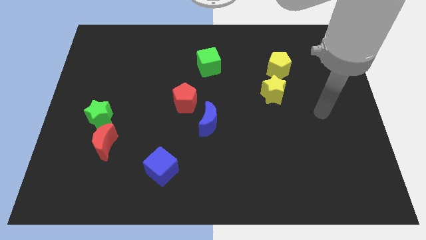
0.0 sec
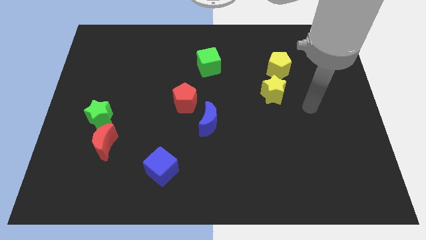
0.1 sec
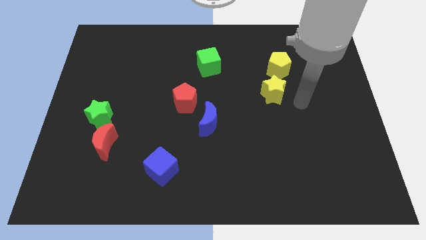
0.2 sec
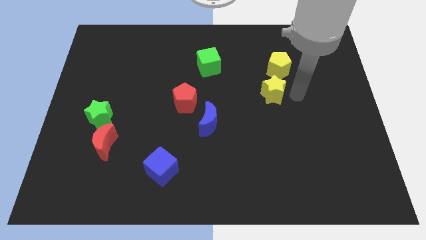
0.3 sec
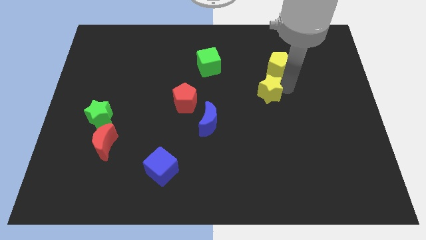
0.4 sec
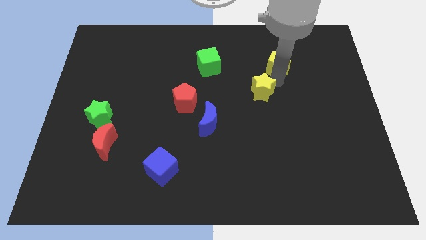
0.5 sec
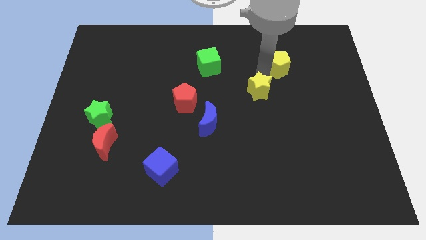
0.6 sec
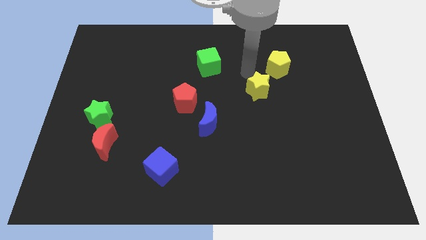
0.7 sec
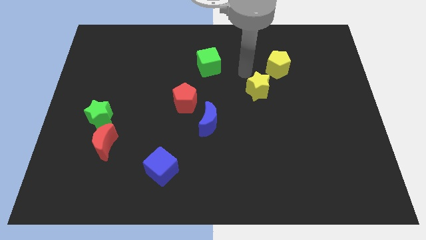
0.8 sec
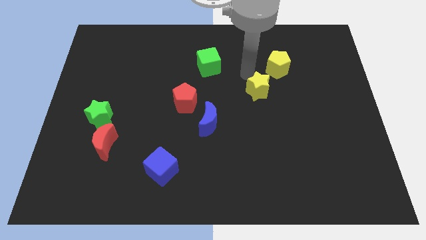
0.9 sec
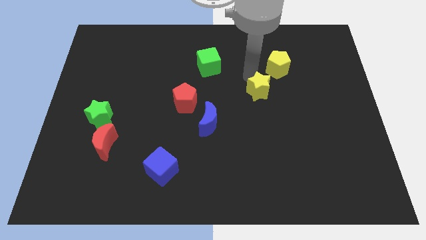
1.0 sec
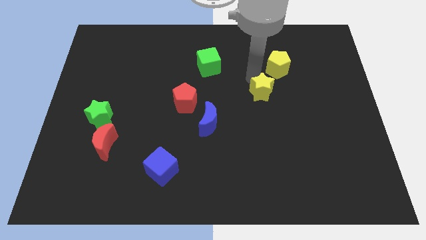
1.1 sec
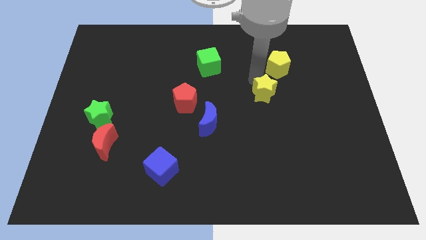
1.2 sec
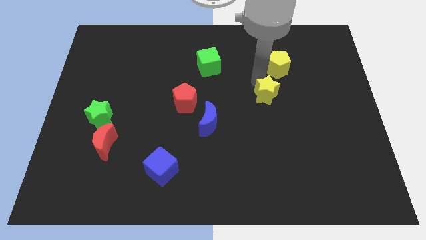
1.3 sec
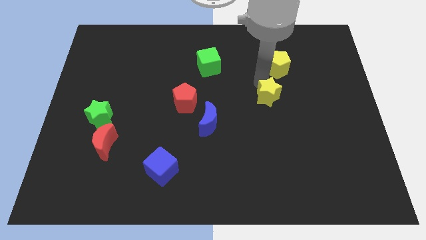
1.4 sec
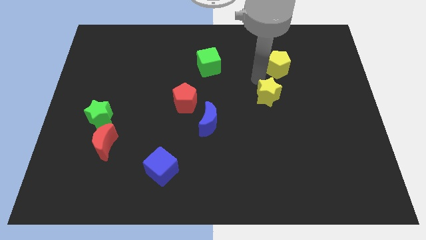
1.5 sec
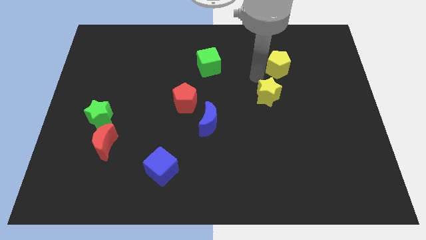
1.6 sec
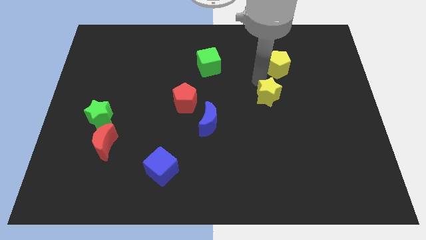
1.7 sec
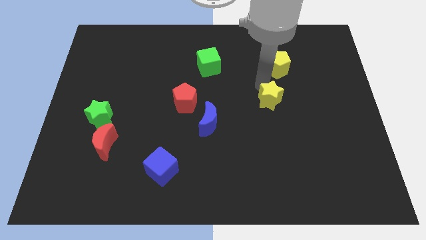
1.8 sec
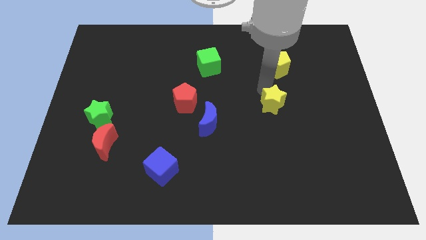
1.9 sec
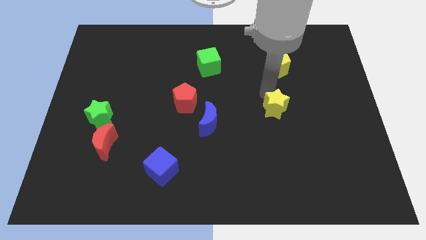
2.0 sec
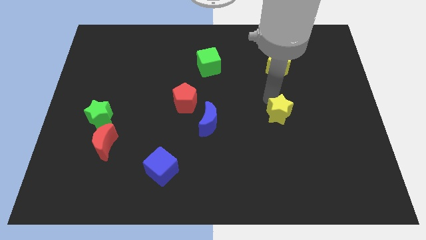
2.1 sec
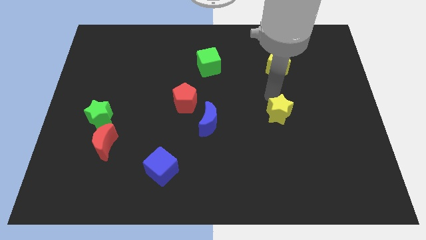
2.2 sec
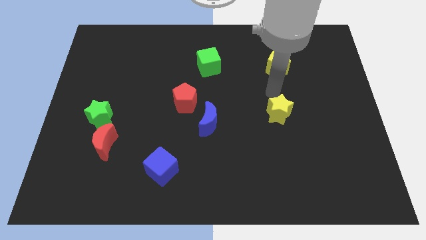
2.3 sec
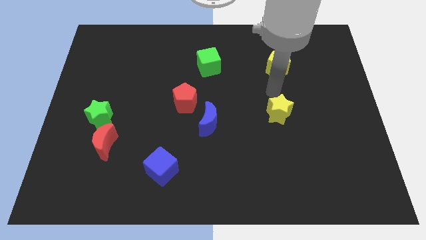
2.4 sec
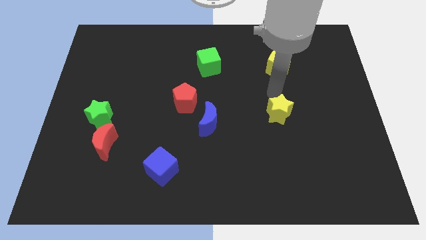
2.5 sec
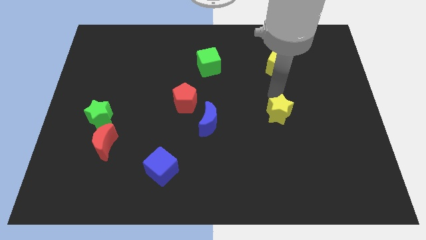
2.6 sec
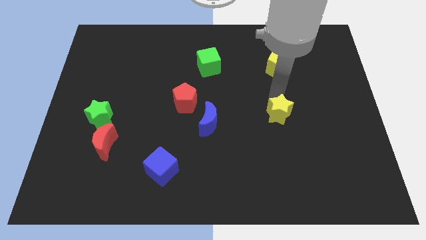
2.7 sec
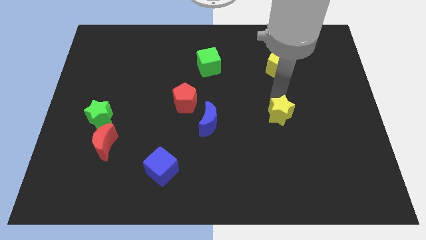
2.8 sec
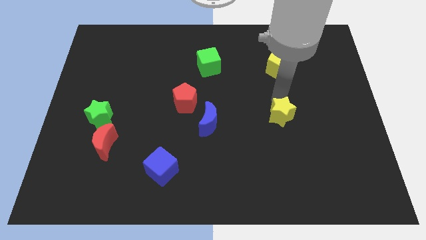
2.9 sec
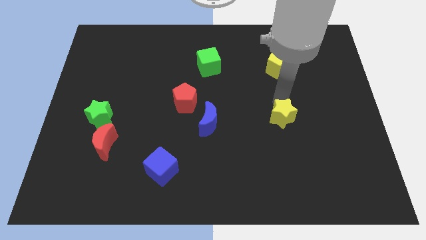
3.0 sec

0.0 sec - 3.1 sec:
slightly move the yellow star down

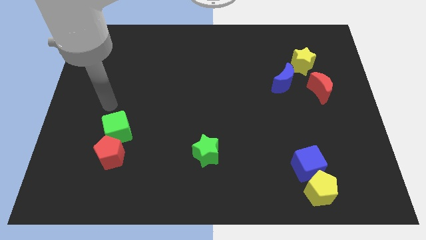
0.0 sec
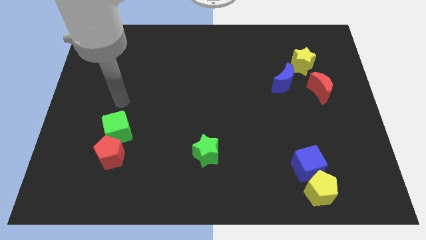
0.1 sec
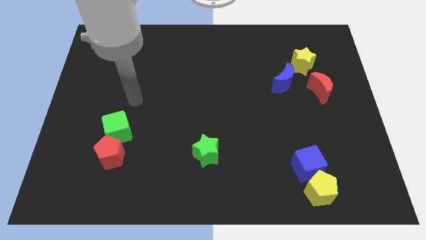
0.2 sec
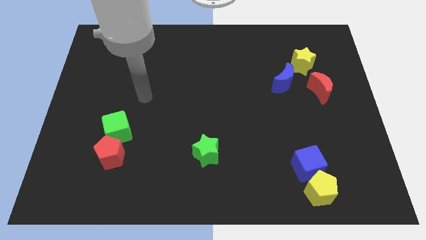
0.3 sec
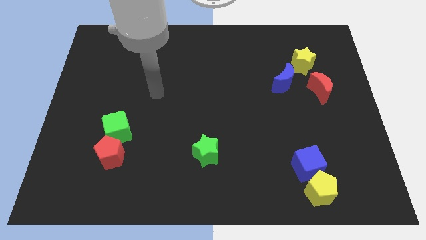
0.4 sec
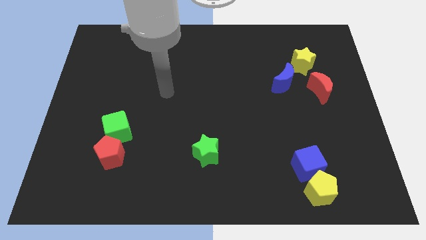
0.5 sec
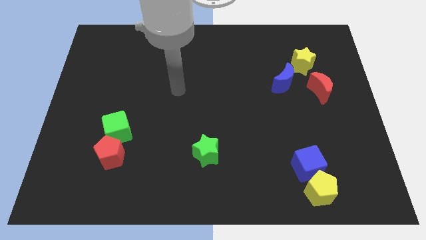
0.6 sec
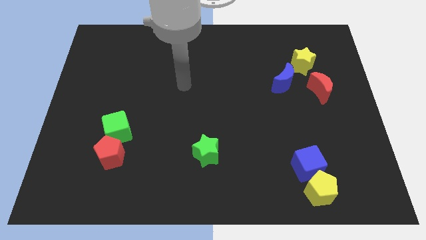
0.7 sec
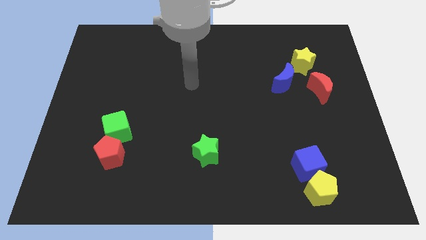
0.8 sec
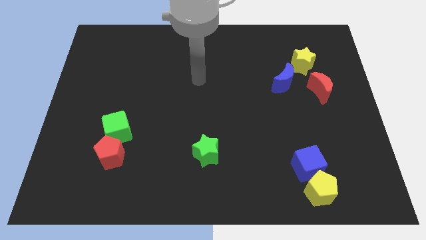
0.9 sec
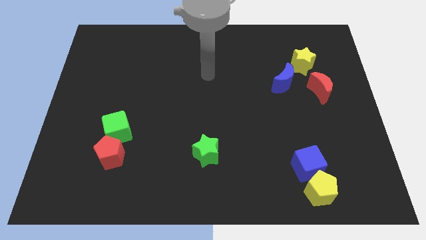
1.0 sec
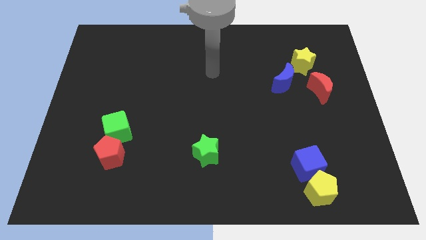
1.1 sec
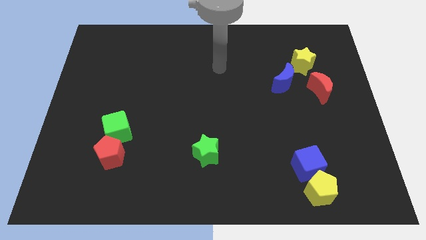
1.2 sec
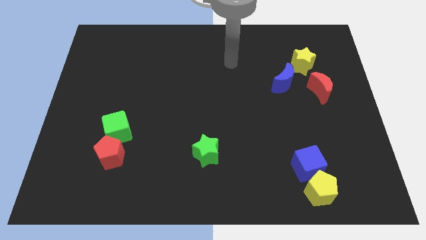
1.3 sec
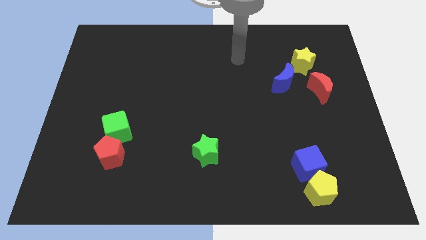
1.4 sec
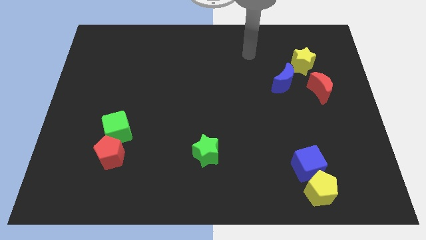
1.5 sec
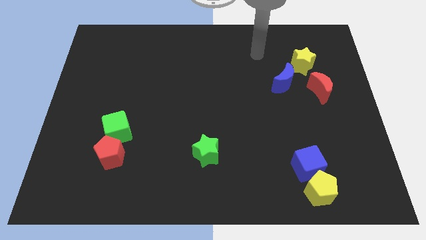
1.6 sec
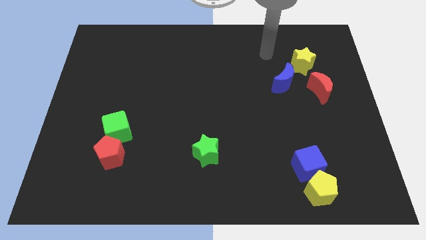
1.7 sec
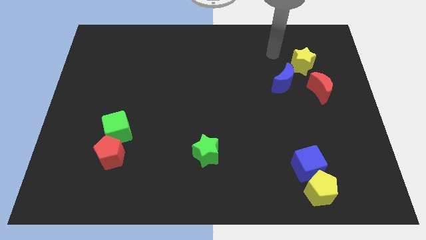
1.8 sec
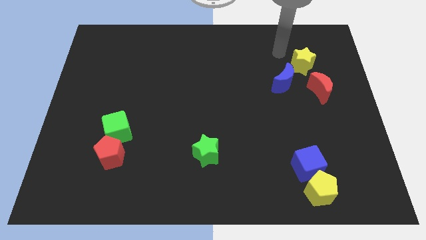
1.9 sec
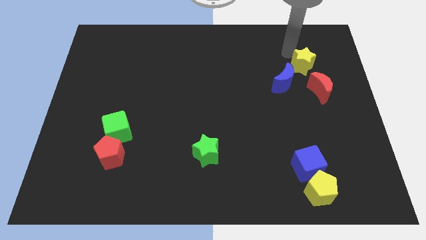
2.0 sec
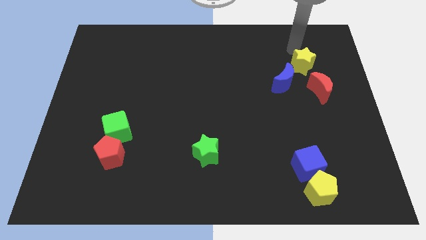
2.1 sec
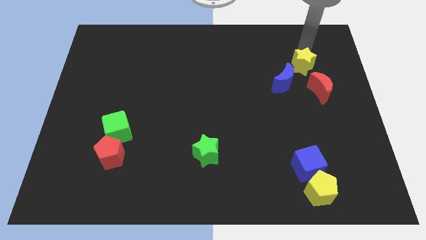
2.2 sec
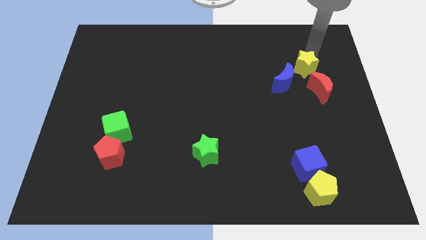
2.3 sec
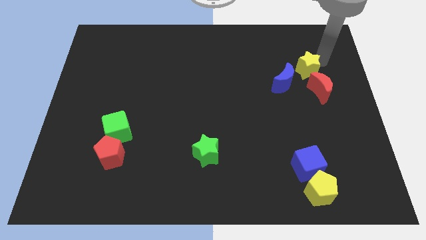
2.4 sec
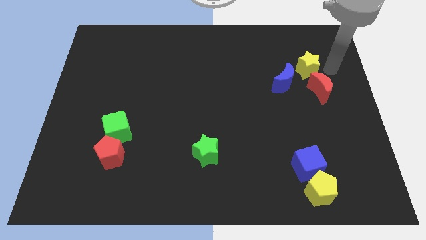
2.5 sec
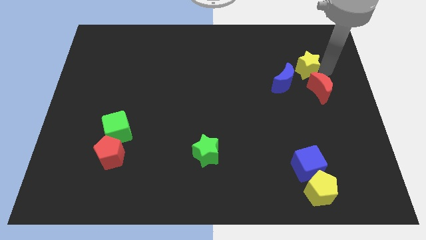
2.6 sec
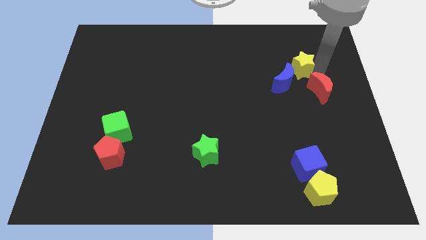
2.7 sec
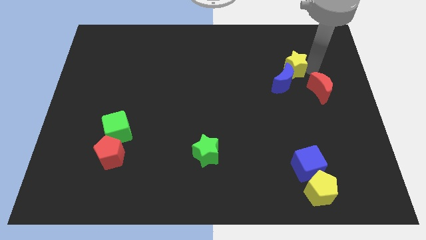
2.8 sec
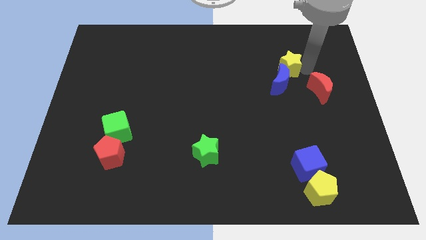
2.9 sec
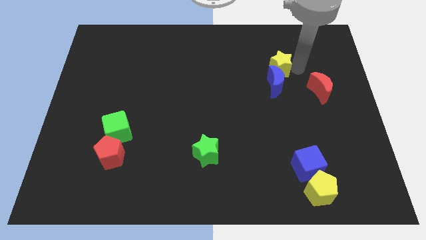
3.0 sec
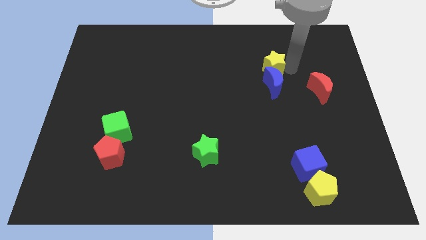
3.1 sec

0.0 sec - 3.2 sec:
slide the yellow star to the left a little bit

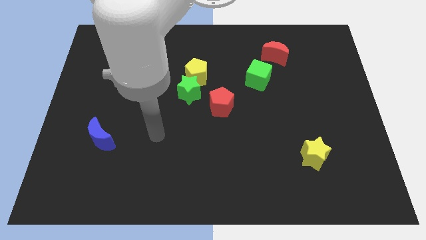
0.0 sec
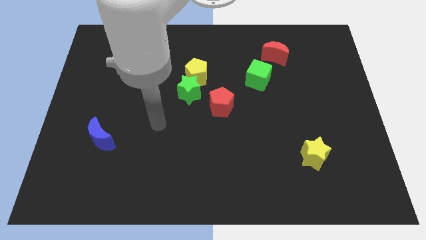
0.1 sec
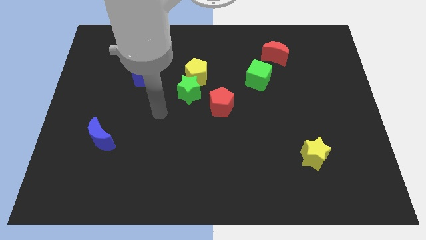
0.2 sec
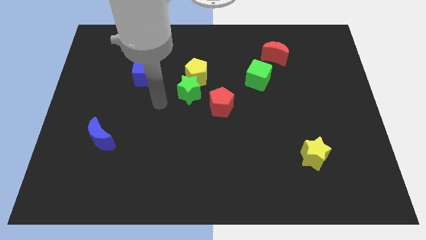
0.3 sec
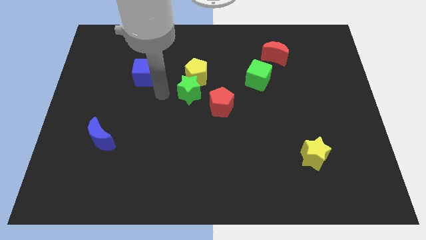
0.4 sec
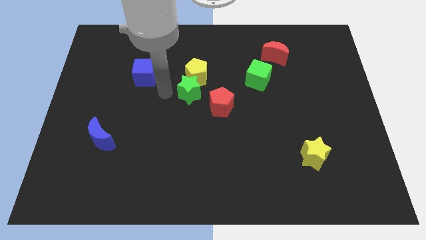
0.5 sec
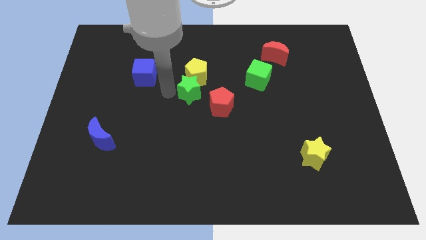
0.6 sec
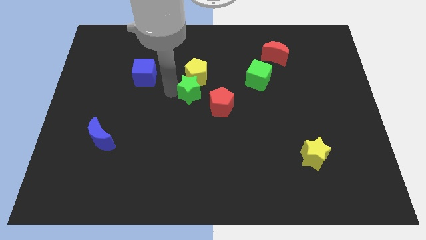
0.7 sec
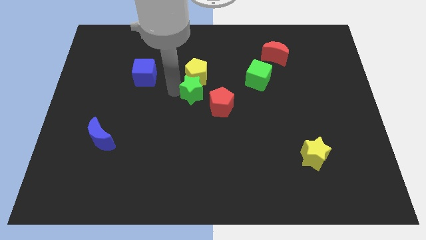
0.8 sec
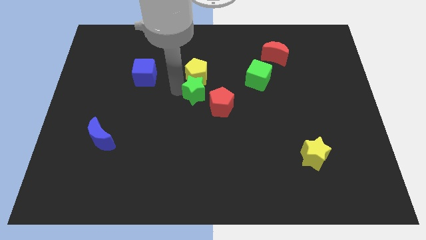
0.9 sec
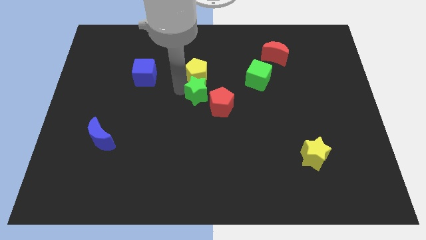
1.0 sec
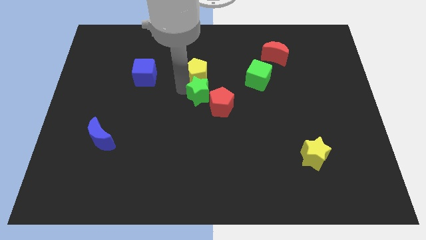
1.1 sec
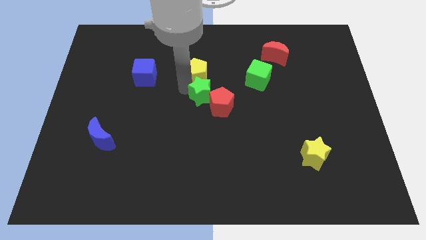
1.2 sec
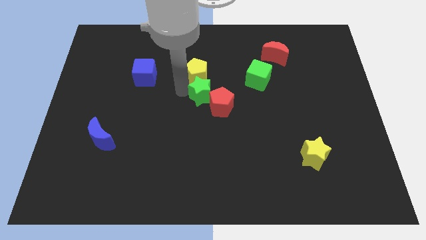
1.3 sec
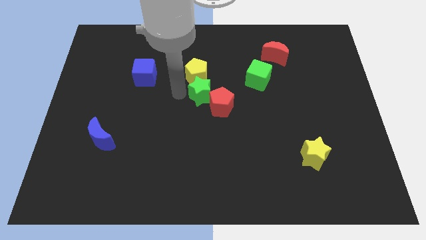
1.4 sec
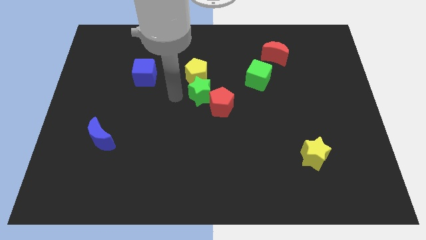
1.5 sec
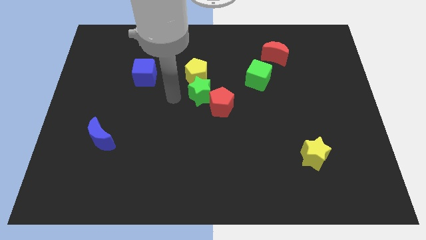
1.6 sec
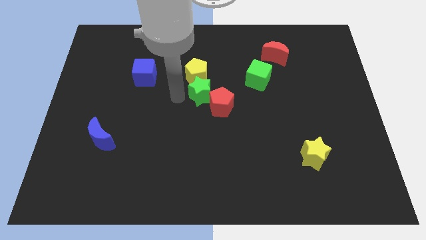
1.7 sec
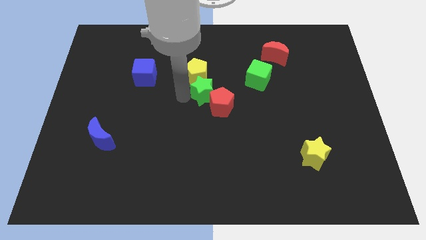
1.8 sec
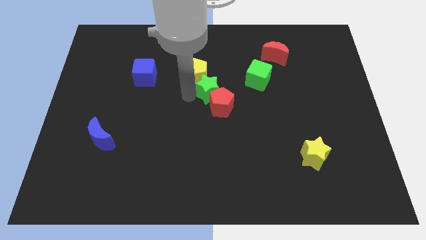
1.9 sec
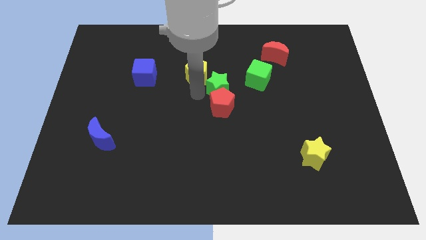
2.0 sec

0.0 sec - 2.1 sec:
move the green star right somewhat

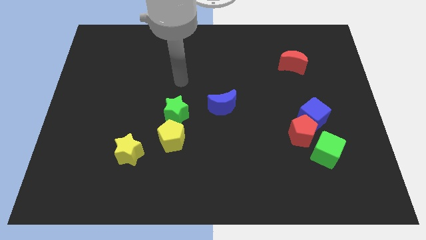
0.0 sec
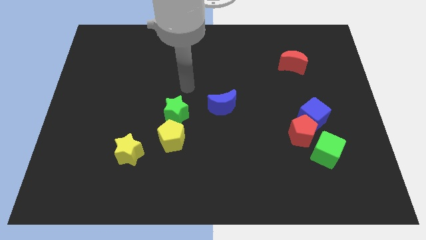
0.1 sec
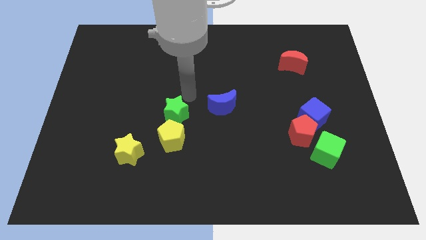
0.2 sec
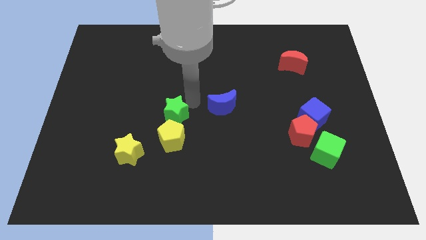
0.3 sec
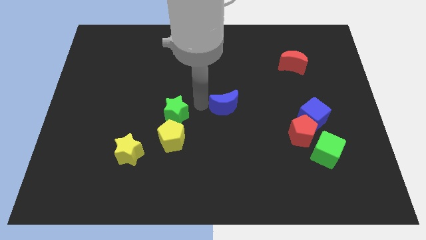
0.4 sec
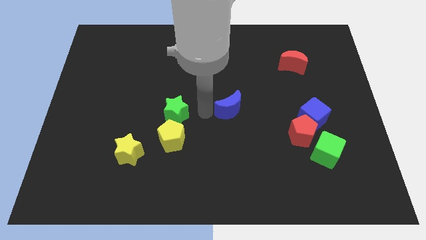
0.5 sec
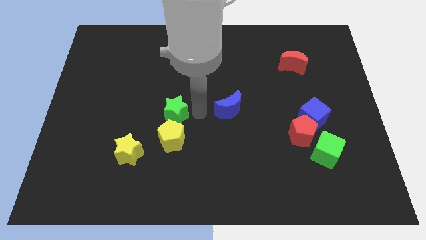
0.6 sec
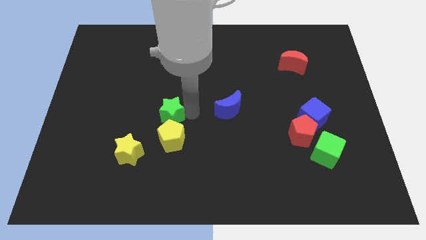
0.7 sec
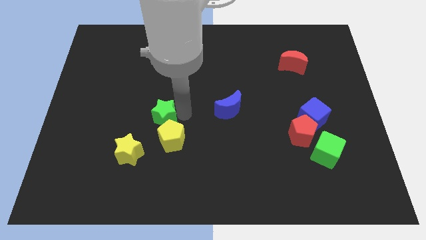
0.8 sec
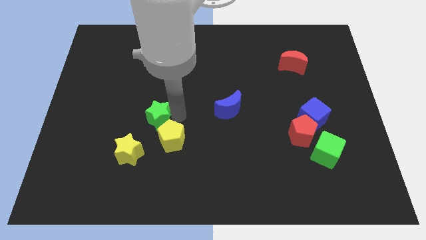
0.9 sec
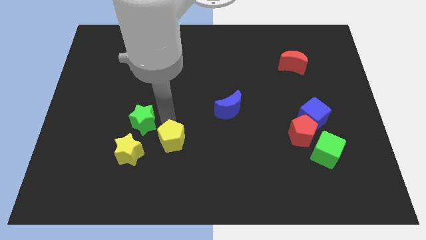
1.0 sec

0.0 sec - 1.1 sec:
slide the green star left a bit
